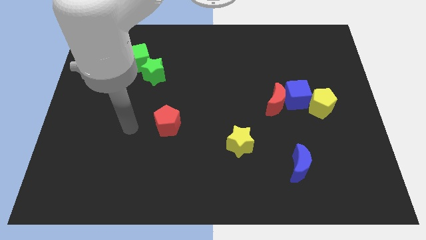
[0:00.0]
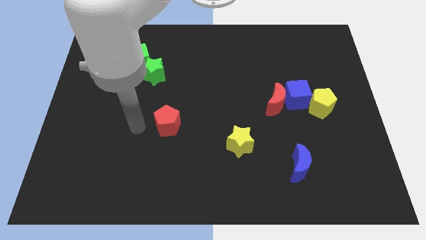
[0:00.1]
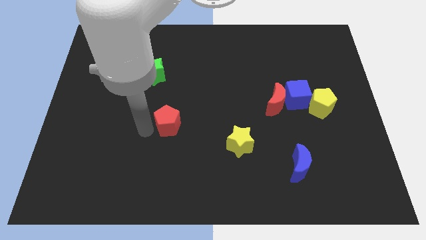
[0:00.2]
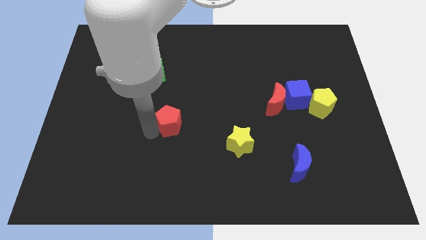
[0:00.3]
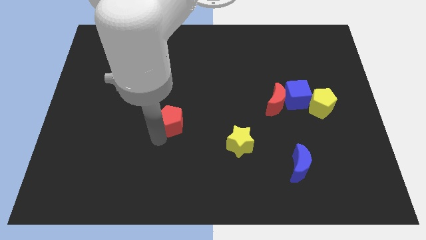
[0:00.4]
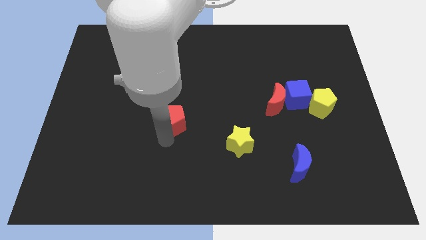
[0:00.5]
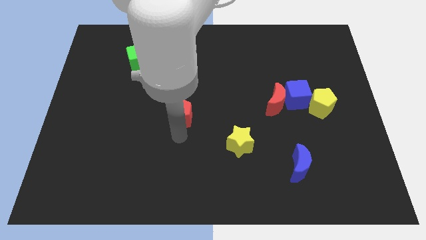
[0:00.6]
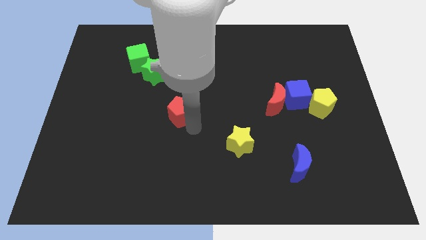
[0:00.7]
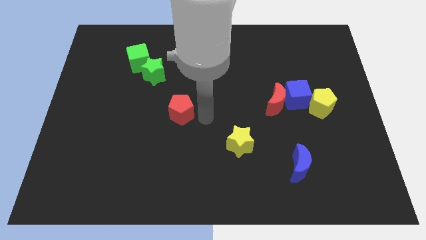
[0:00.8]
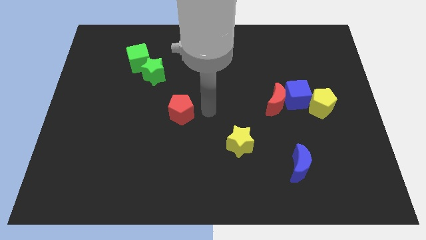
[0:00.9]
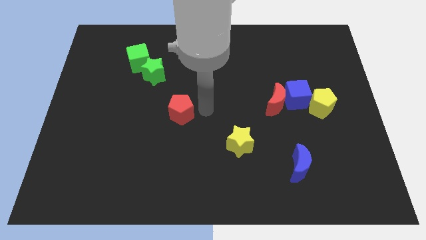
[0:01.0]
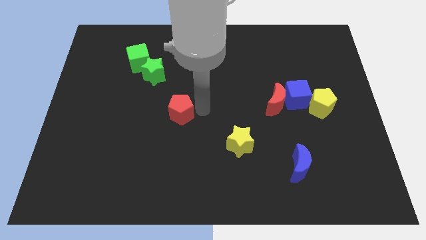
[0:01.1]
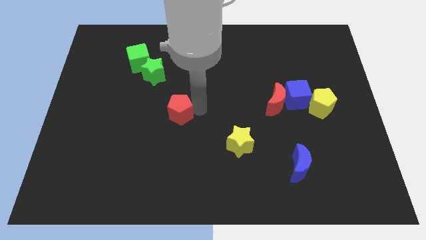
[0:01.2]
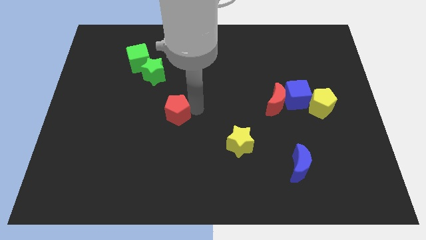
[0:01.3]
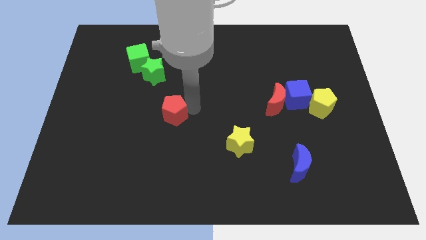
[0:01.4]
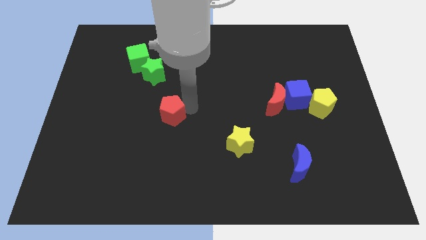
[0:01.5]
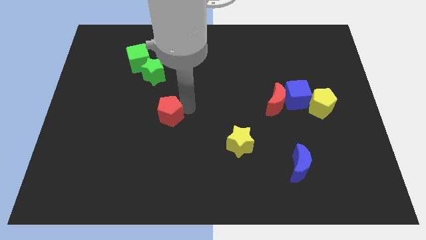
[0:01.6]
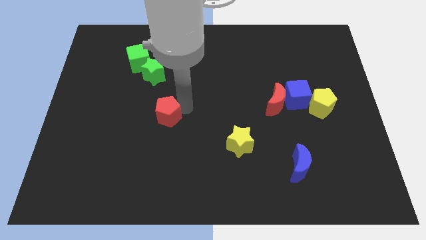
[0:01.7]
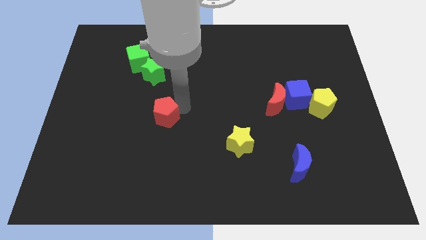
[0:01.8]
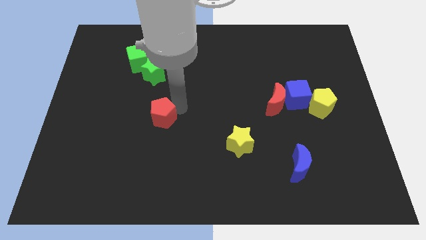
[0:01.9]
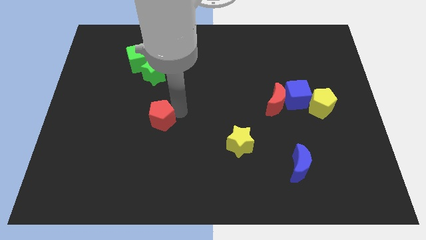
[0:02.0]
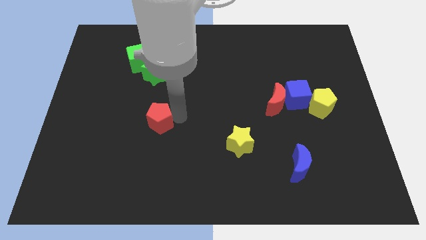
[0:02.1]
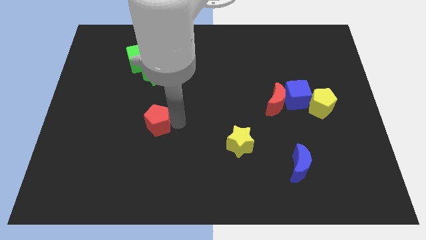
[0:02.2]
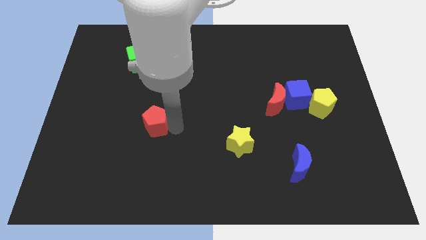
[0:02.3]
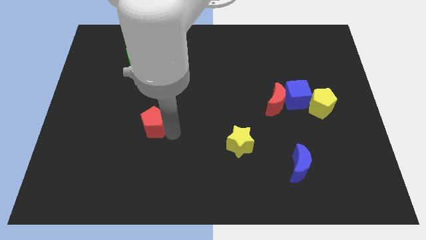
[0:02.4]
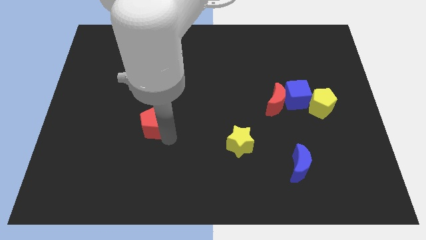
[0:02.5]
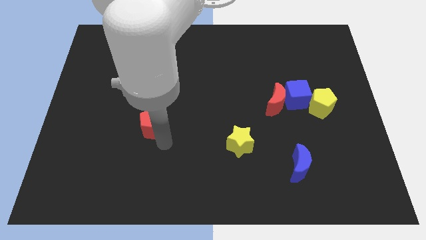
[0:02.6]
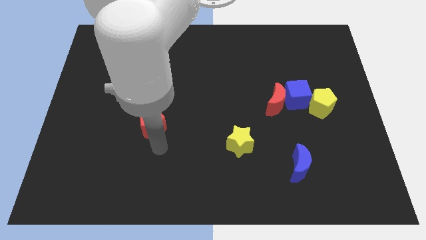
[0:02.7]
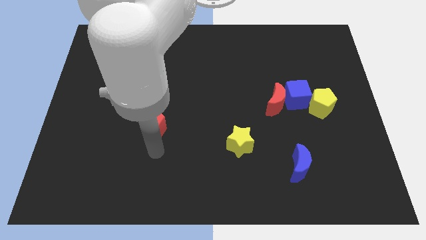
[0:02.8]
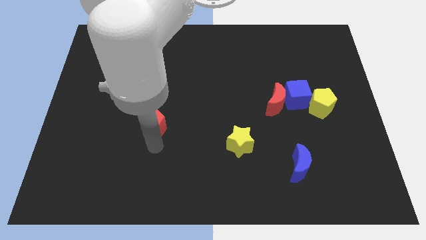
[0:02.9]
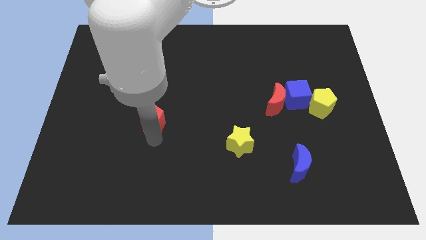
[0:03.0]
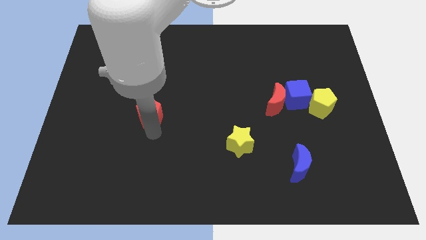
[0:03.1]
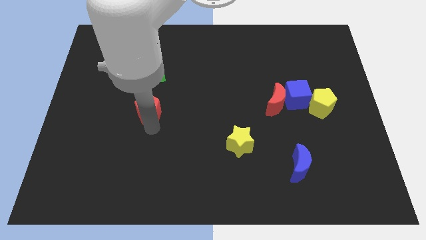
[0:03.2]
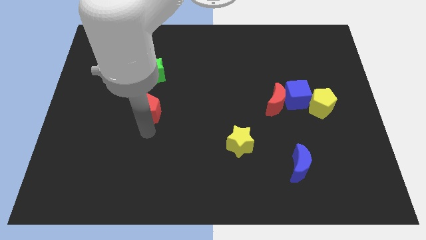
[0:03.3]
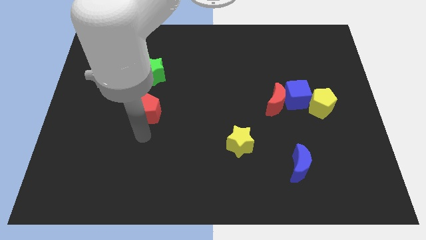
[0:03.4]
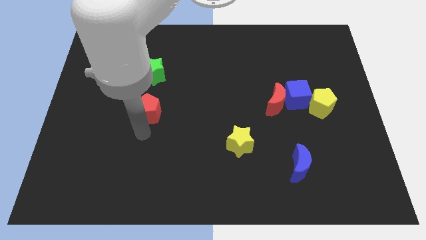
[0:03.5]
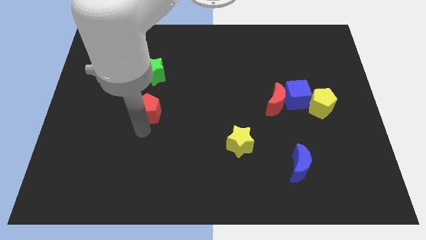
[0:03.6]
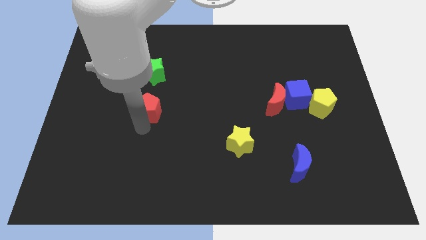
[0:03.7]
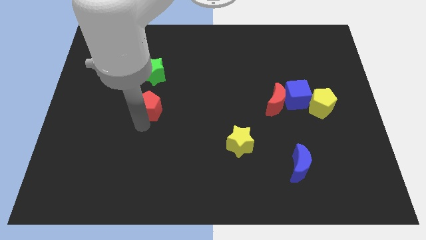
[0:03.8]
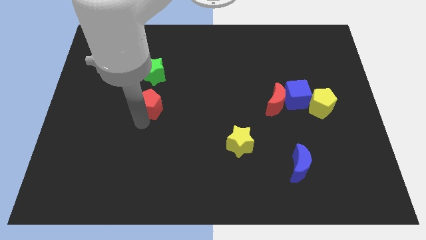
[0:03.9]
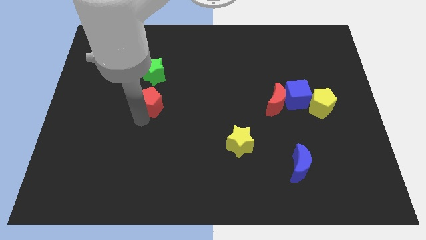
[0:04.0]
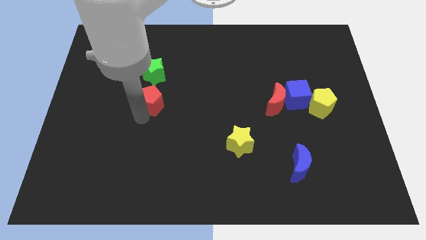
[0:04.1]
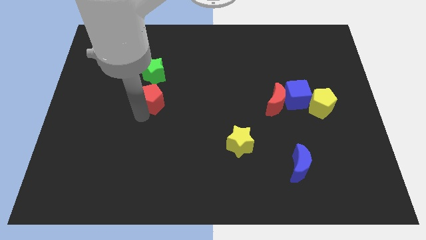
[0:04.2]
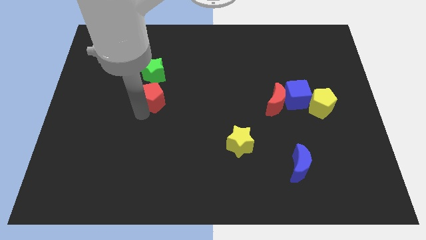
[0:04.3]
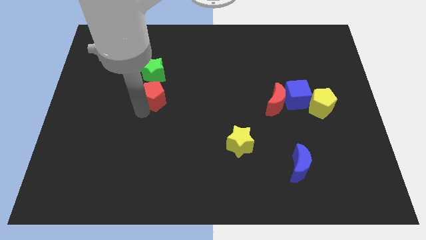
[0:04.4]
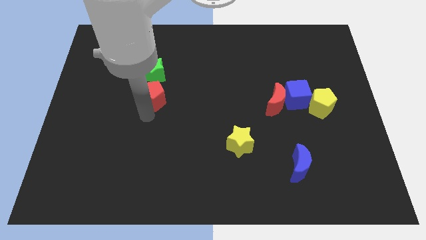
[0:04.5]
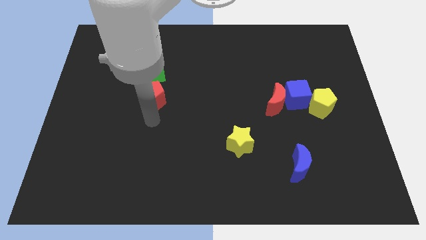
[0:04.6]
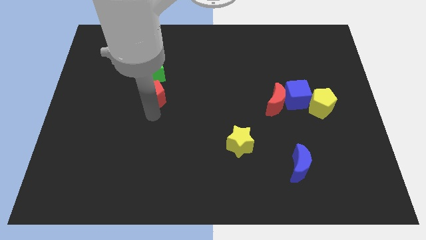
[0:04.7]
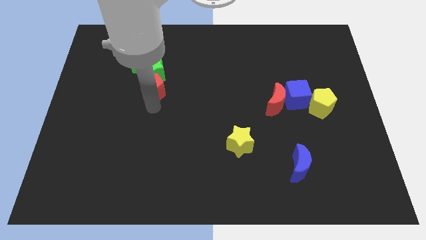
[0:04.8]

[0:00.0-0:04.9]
slide the red pentagon towards the green star

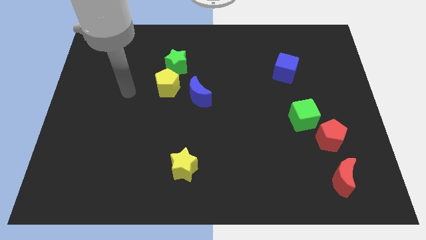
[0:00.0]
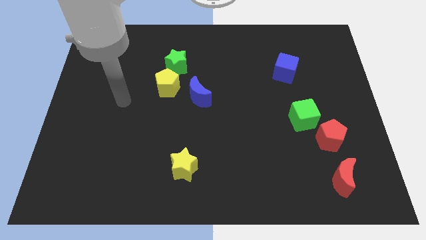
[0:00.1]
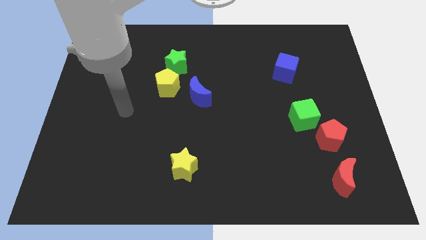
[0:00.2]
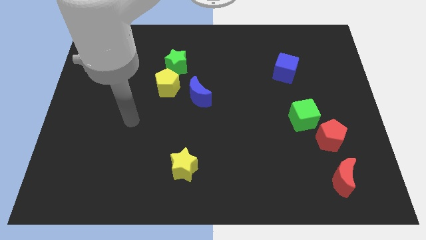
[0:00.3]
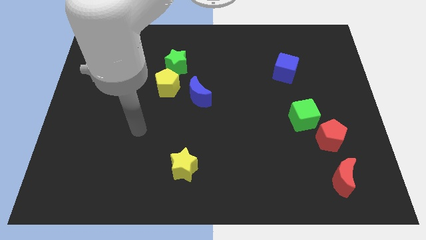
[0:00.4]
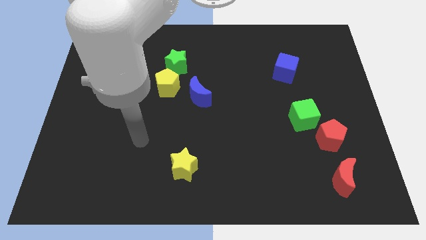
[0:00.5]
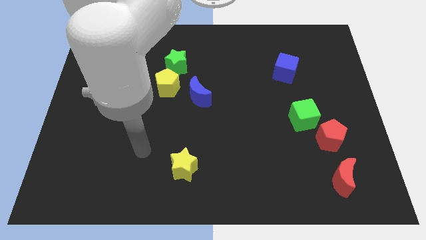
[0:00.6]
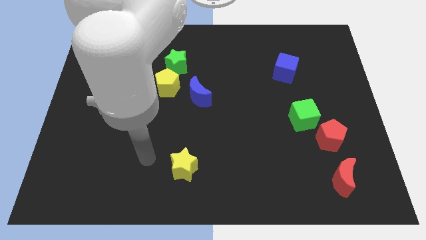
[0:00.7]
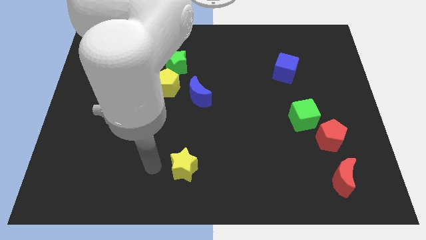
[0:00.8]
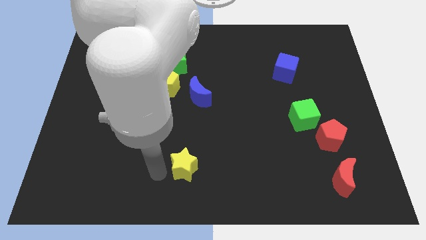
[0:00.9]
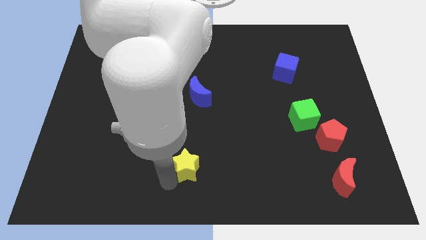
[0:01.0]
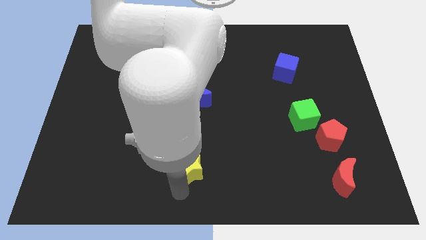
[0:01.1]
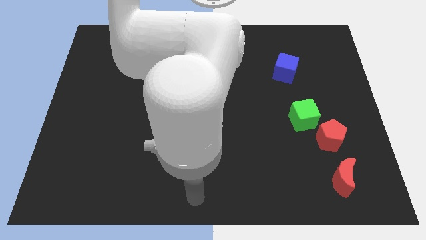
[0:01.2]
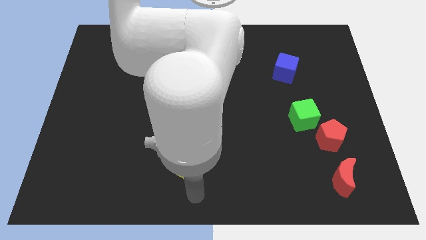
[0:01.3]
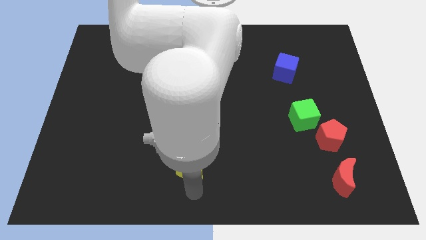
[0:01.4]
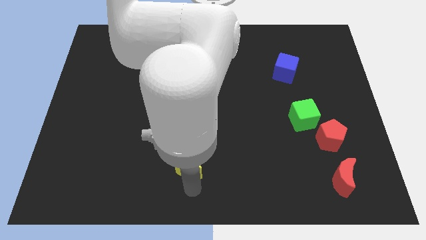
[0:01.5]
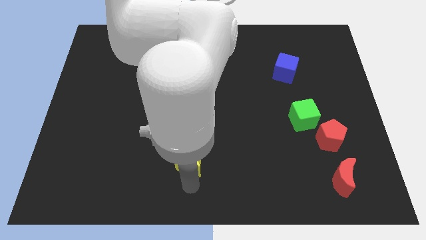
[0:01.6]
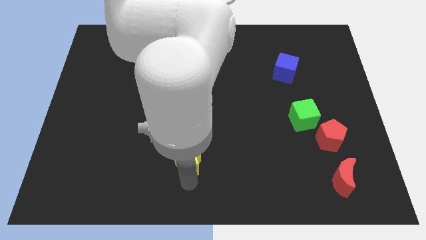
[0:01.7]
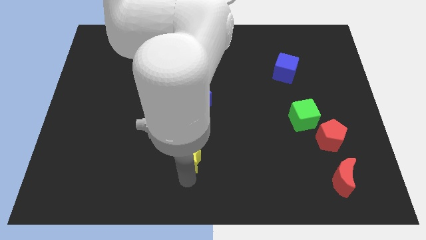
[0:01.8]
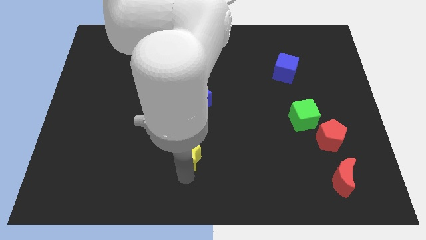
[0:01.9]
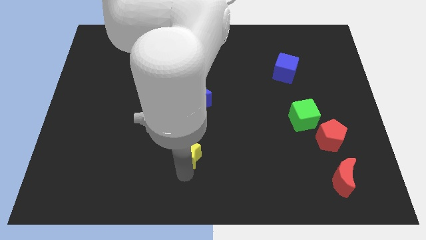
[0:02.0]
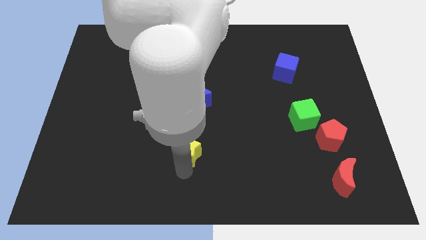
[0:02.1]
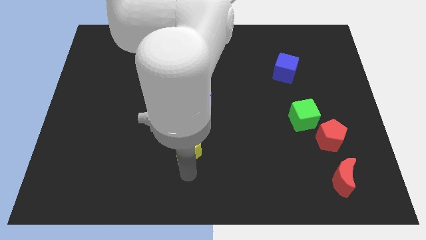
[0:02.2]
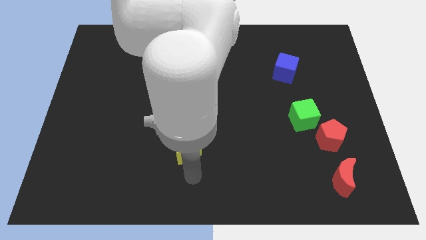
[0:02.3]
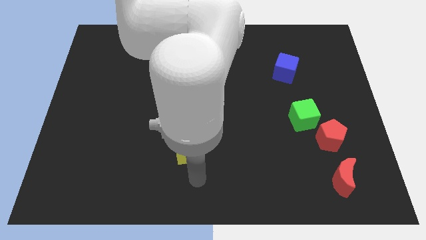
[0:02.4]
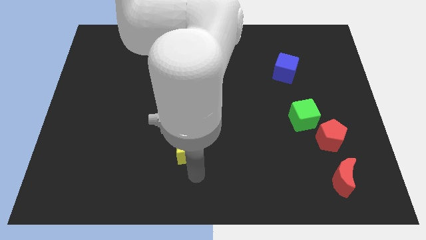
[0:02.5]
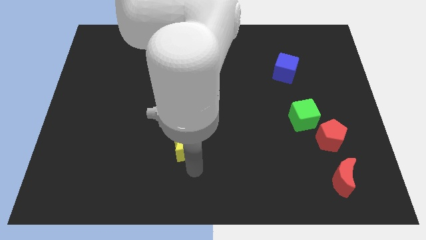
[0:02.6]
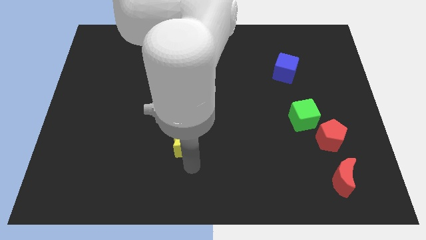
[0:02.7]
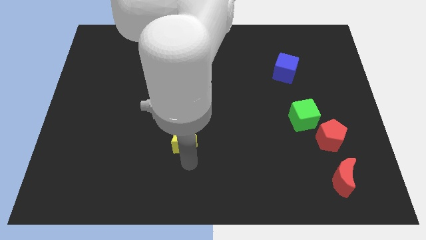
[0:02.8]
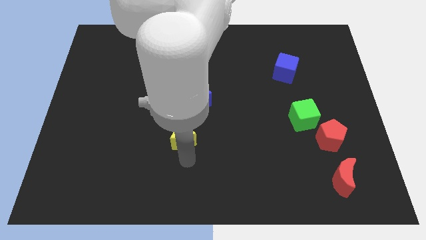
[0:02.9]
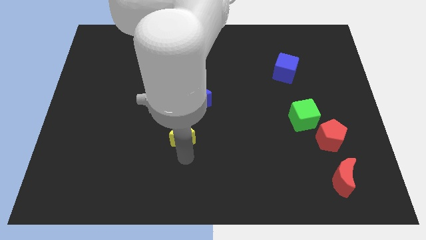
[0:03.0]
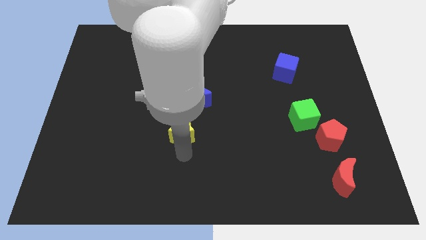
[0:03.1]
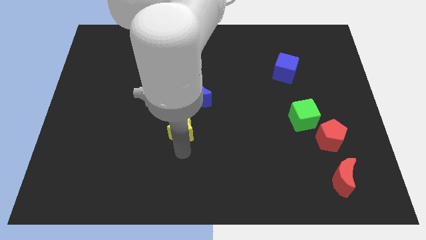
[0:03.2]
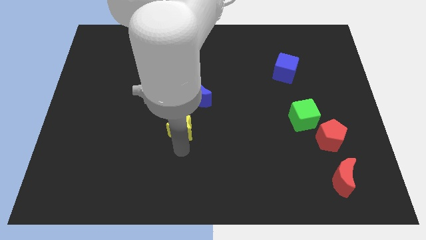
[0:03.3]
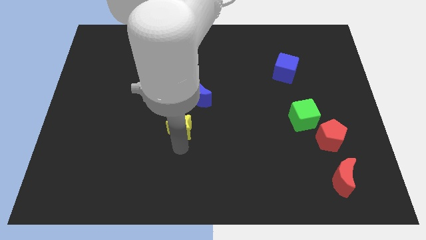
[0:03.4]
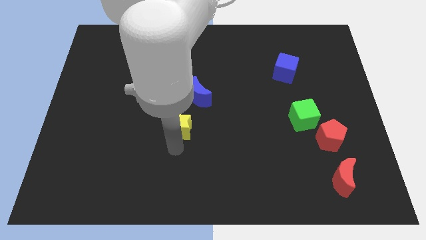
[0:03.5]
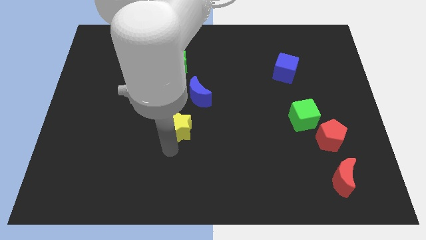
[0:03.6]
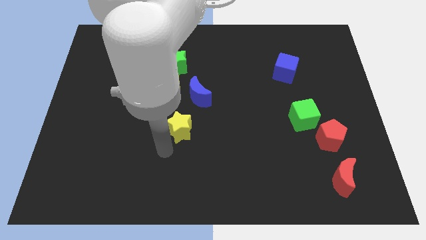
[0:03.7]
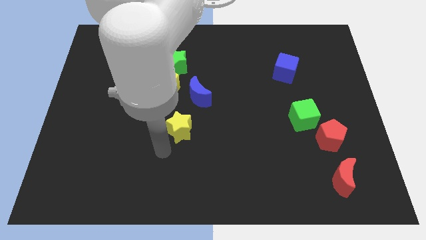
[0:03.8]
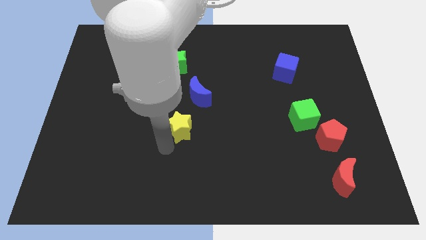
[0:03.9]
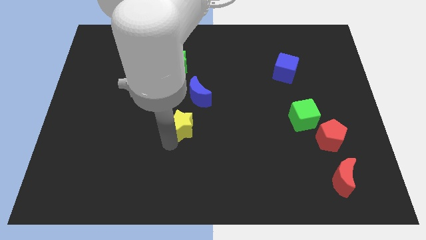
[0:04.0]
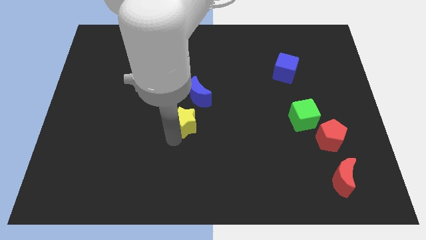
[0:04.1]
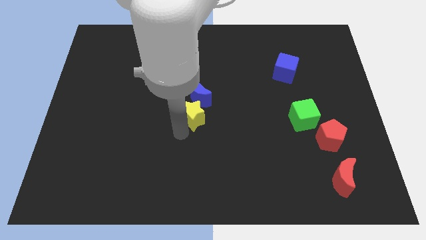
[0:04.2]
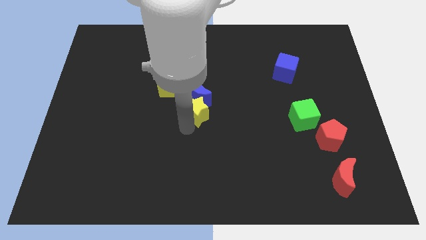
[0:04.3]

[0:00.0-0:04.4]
slide the yellow star next to the blue moon
